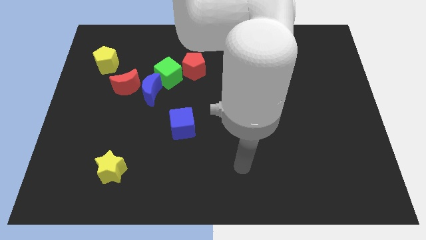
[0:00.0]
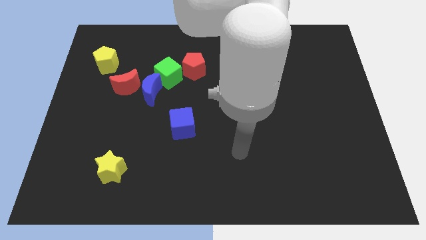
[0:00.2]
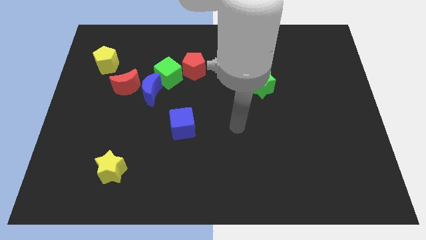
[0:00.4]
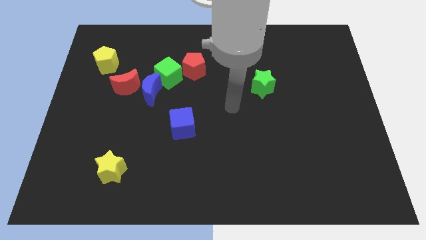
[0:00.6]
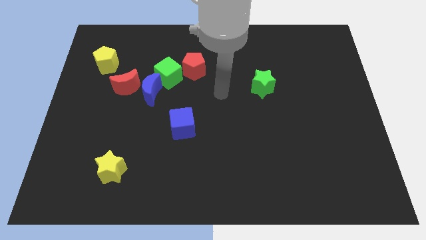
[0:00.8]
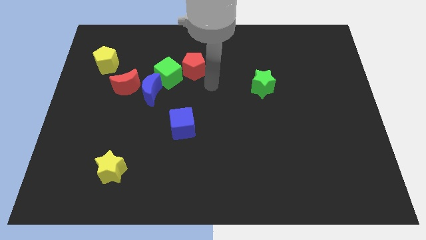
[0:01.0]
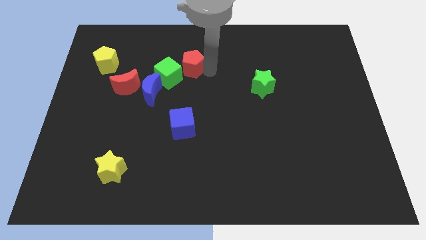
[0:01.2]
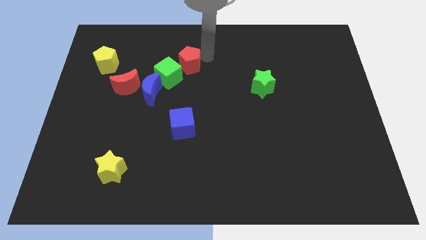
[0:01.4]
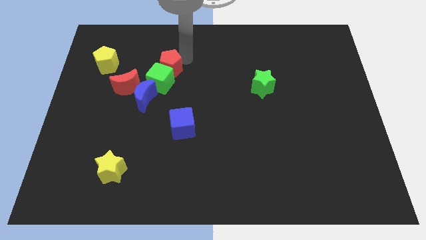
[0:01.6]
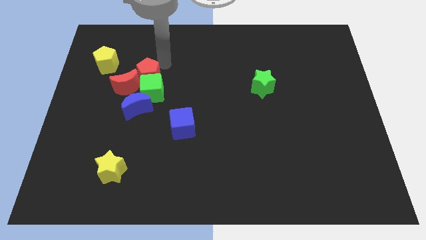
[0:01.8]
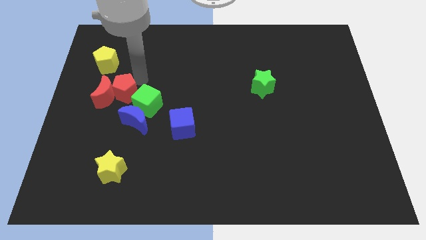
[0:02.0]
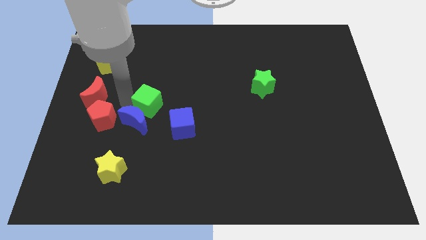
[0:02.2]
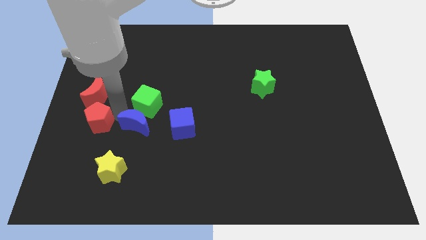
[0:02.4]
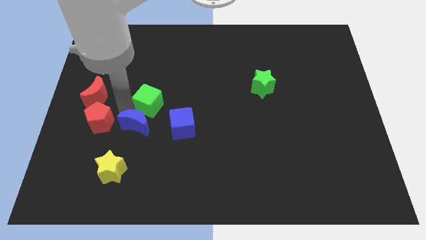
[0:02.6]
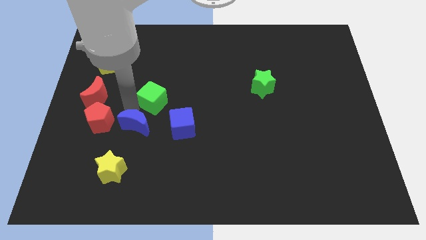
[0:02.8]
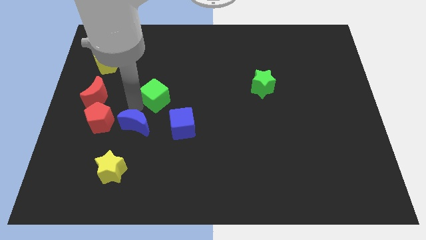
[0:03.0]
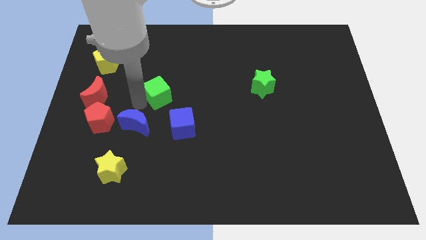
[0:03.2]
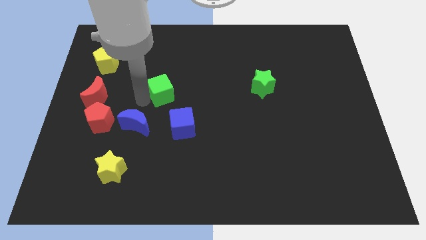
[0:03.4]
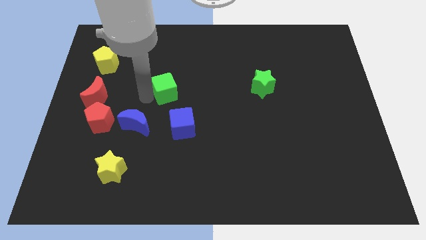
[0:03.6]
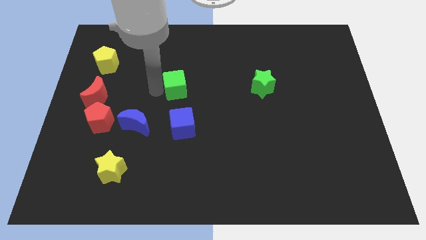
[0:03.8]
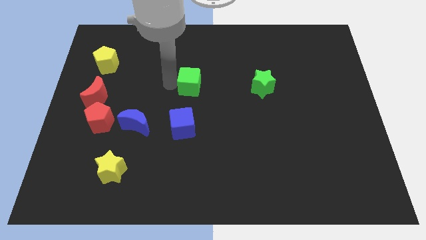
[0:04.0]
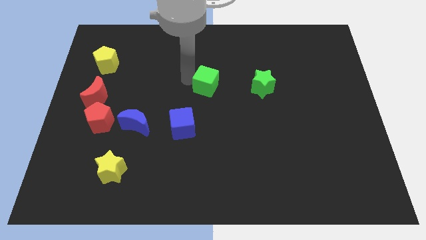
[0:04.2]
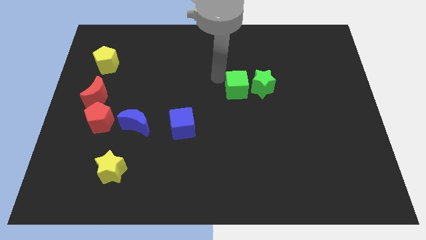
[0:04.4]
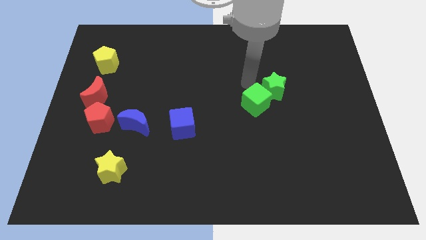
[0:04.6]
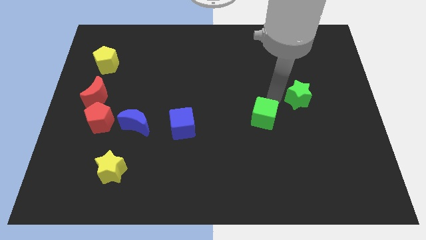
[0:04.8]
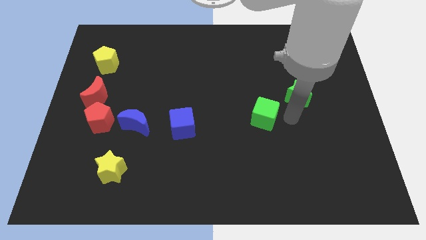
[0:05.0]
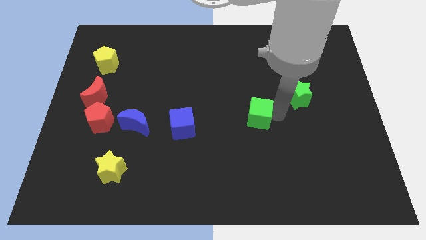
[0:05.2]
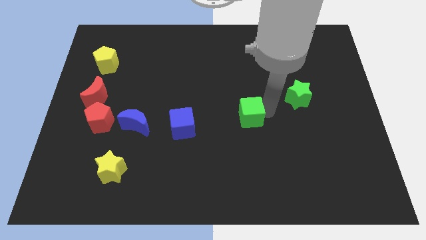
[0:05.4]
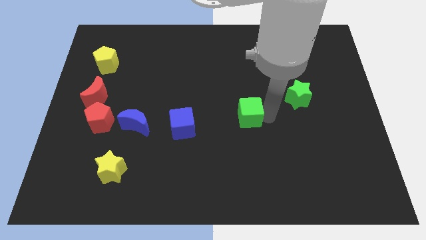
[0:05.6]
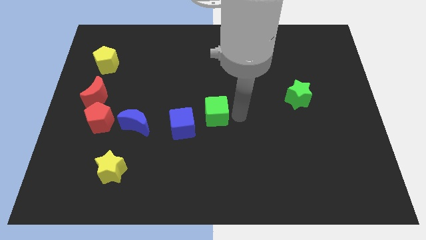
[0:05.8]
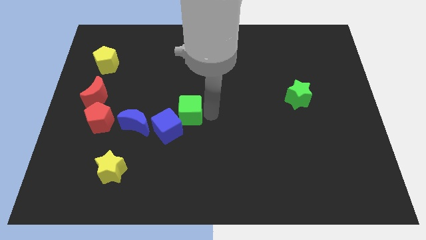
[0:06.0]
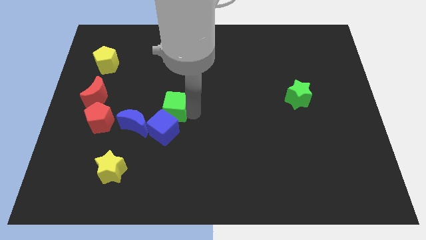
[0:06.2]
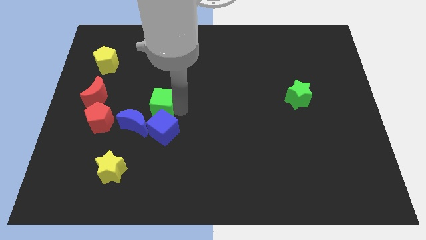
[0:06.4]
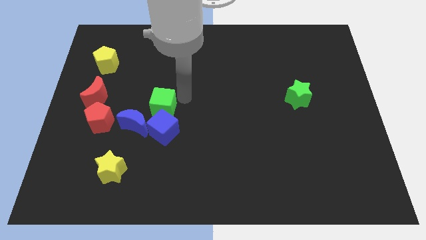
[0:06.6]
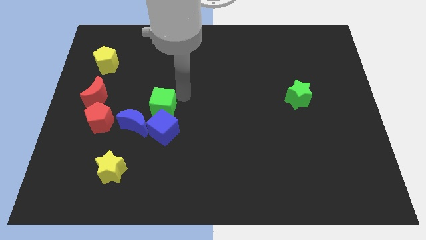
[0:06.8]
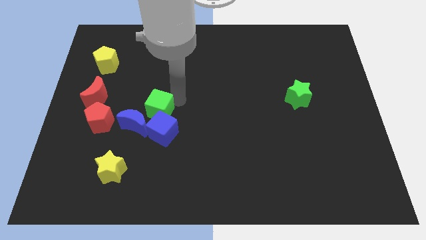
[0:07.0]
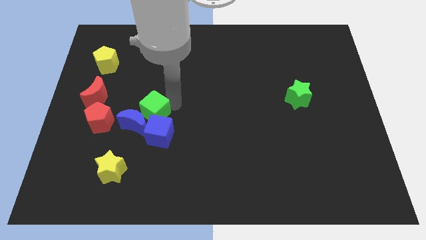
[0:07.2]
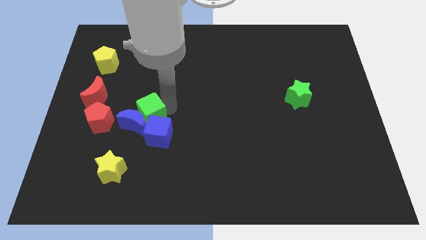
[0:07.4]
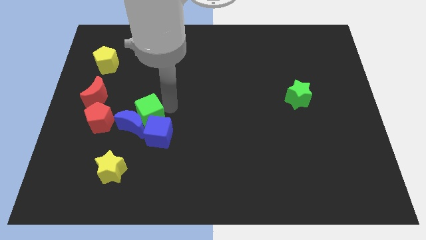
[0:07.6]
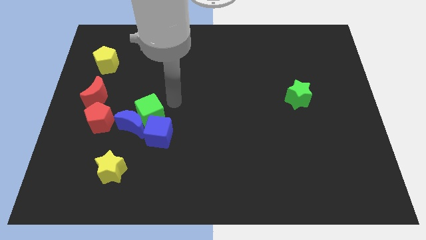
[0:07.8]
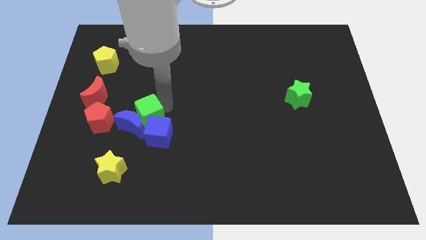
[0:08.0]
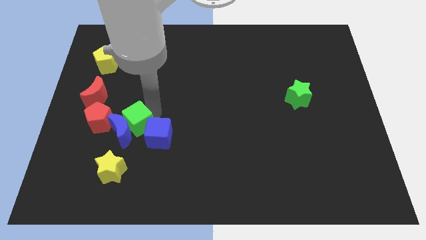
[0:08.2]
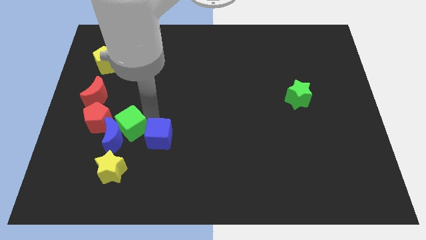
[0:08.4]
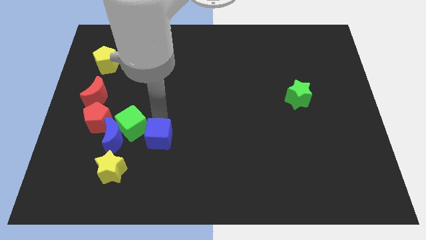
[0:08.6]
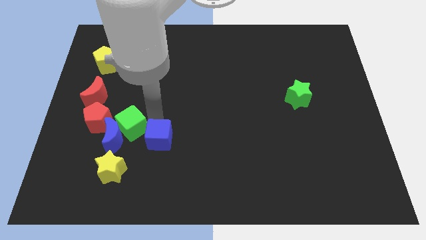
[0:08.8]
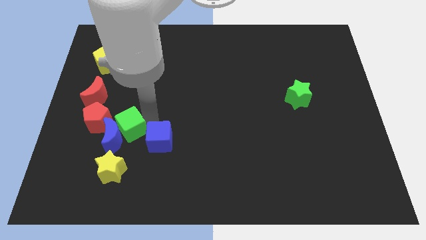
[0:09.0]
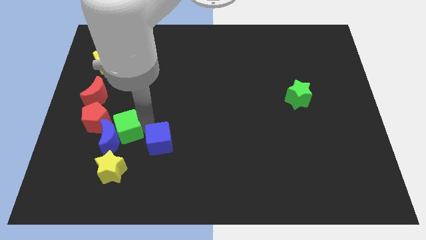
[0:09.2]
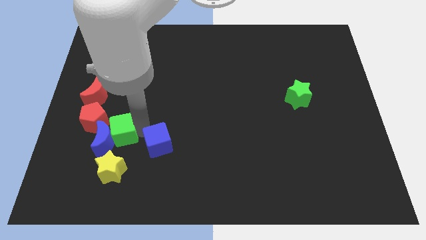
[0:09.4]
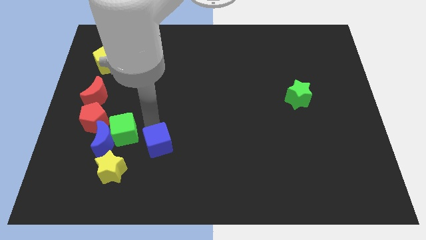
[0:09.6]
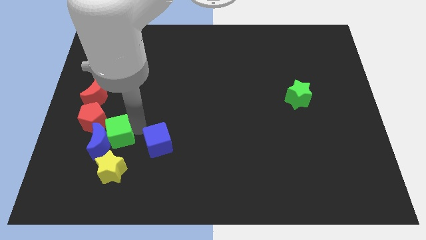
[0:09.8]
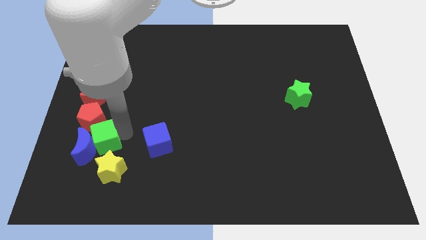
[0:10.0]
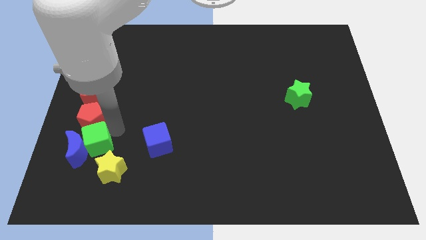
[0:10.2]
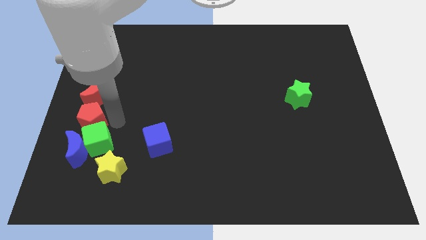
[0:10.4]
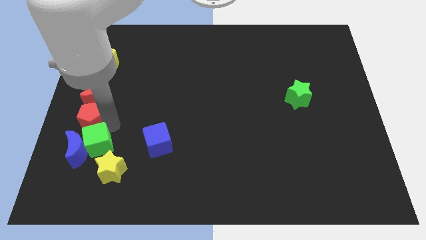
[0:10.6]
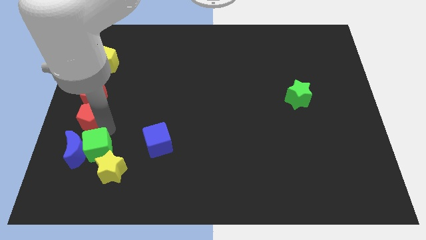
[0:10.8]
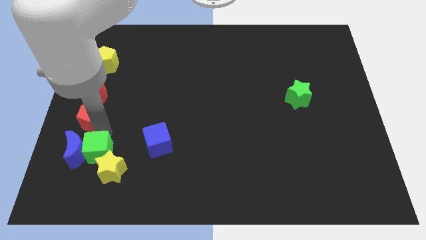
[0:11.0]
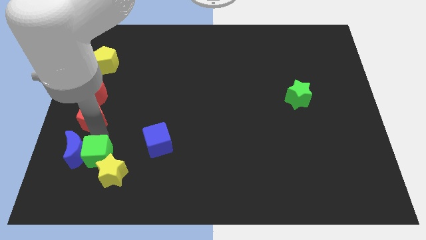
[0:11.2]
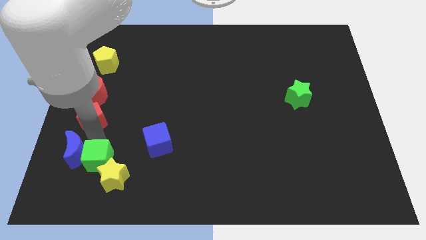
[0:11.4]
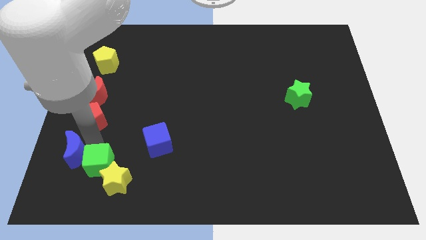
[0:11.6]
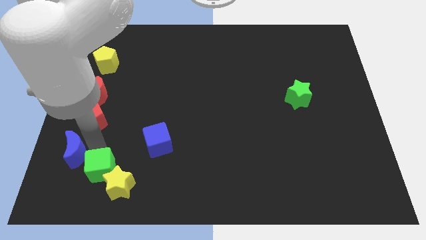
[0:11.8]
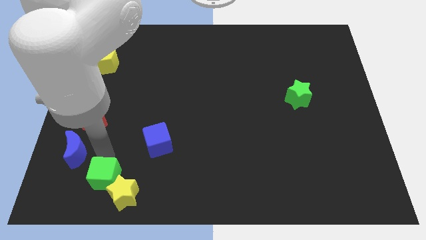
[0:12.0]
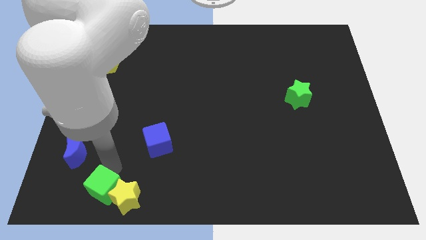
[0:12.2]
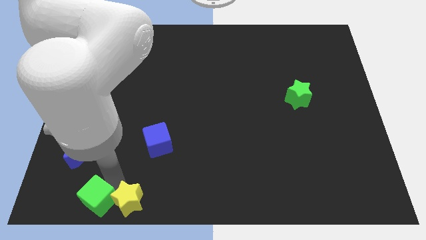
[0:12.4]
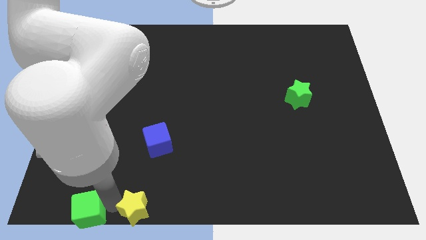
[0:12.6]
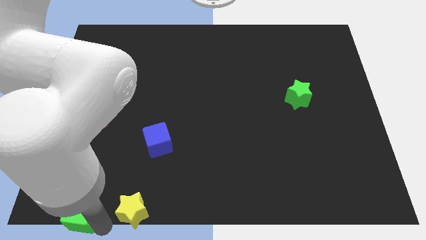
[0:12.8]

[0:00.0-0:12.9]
put the green cube to the bottom left of the board
